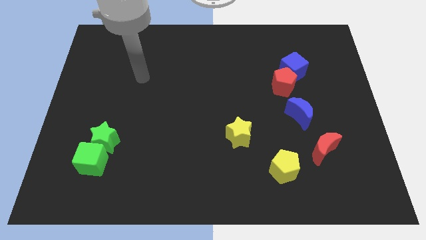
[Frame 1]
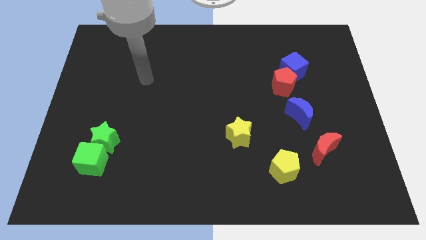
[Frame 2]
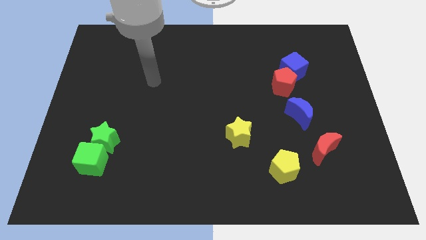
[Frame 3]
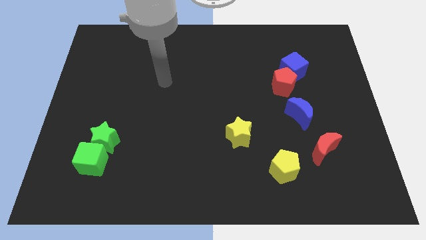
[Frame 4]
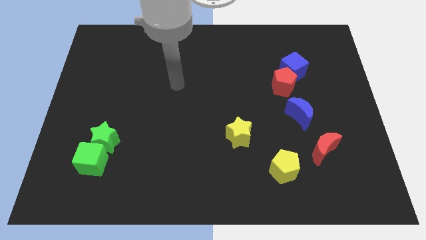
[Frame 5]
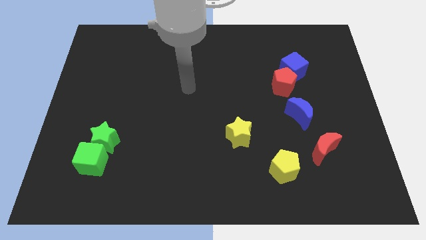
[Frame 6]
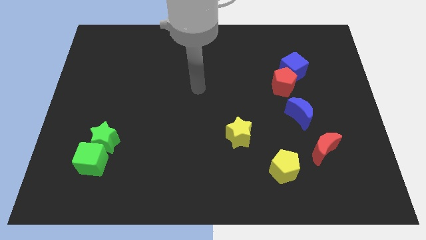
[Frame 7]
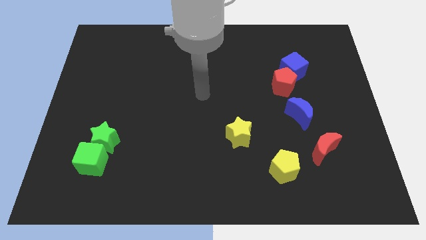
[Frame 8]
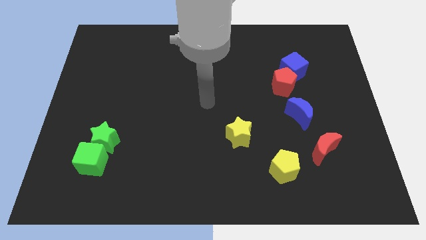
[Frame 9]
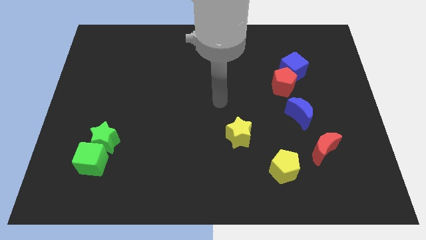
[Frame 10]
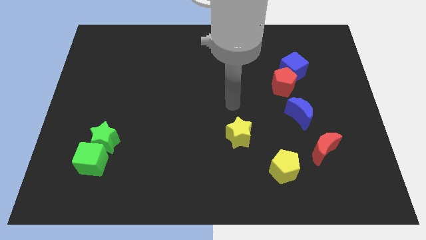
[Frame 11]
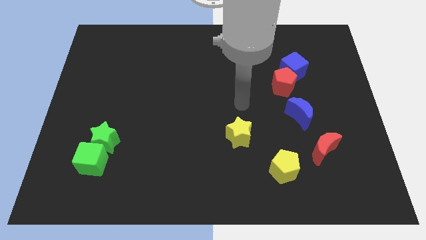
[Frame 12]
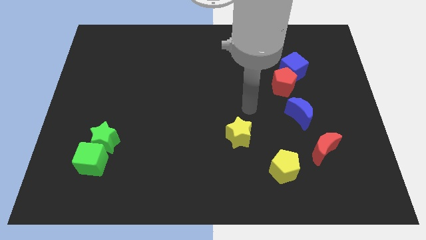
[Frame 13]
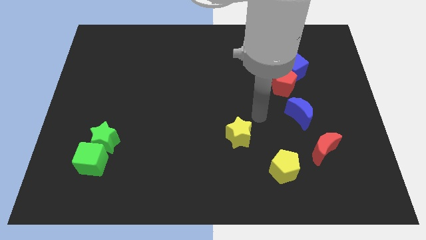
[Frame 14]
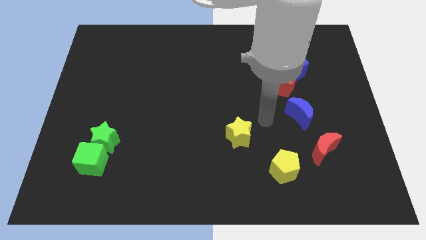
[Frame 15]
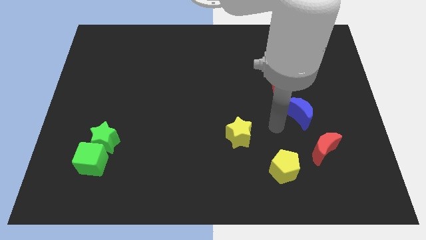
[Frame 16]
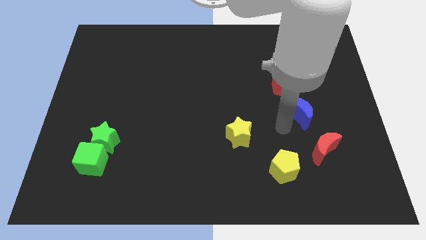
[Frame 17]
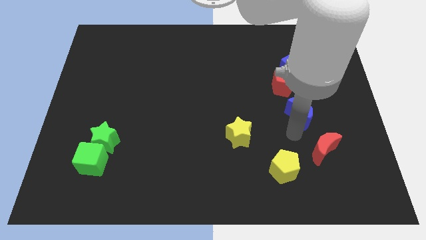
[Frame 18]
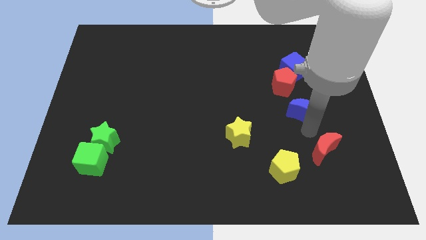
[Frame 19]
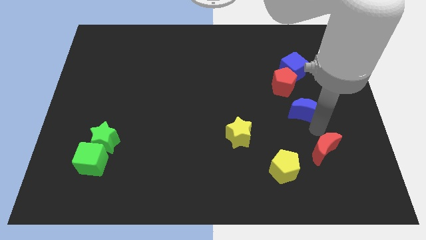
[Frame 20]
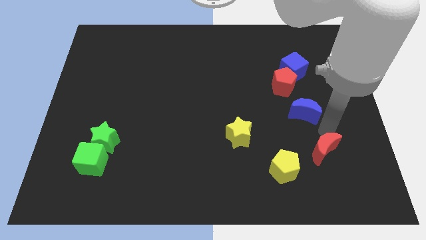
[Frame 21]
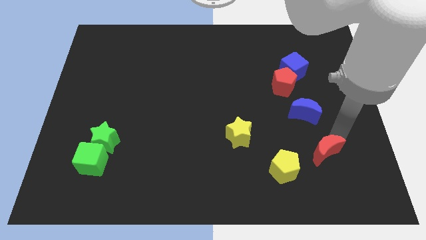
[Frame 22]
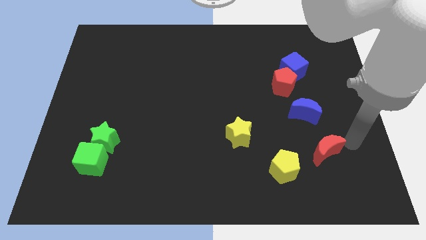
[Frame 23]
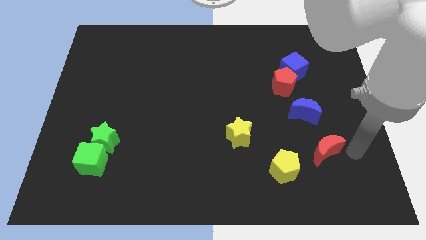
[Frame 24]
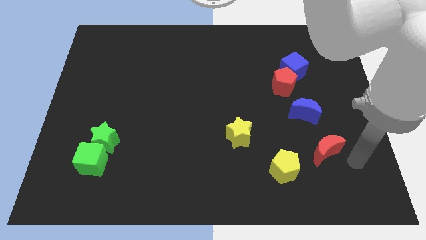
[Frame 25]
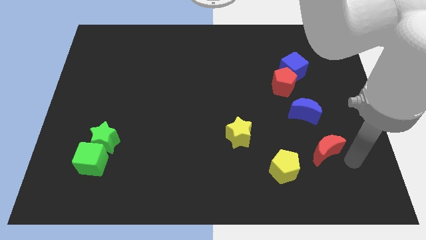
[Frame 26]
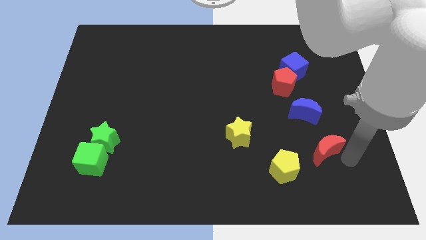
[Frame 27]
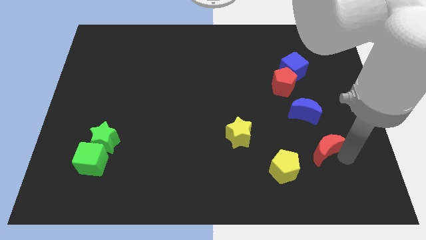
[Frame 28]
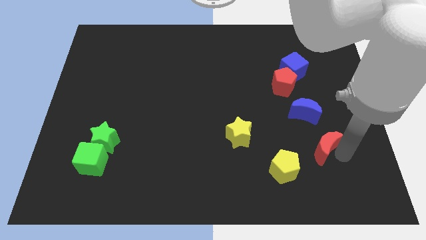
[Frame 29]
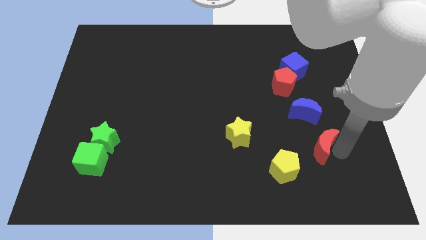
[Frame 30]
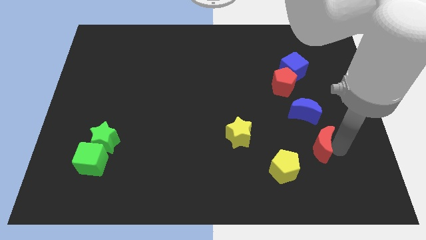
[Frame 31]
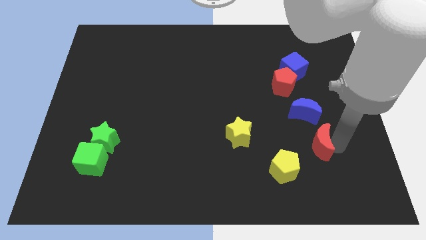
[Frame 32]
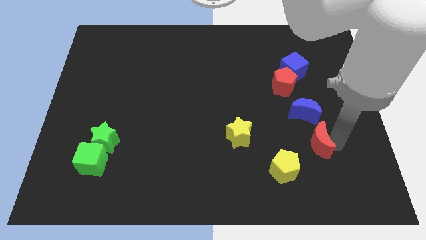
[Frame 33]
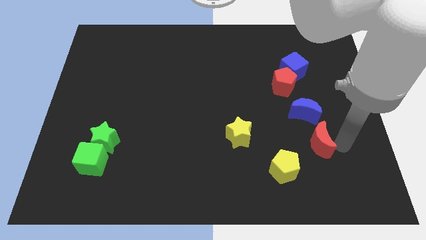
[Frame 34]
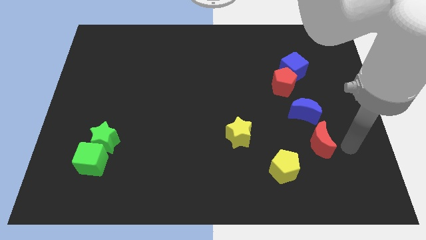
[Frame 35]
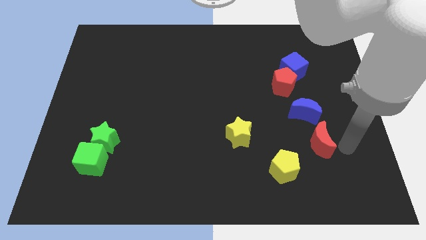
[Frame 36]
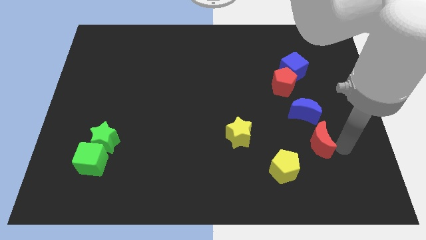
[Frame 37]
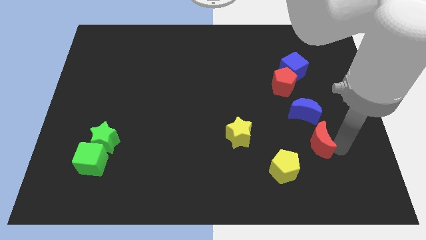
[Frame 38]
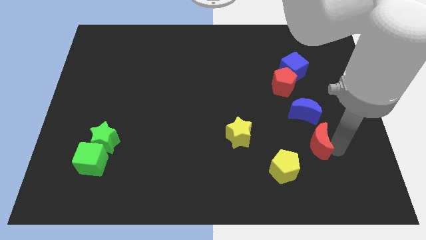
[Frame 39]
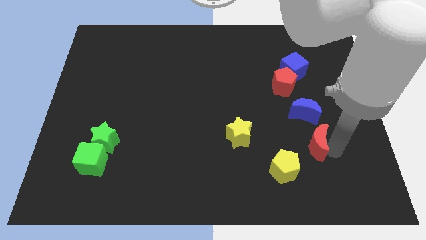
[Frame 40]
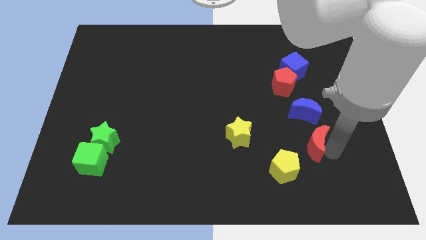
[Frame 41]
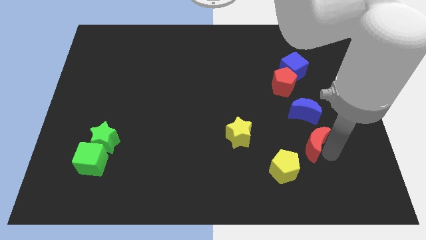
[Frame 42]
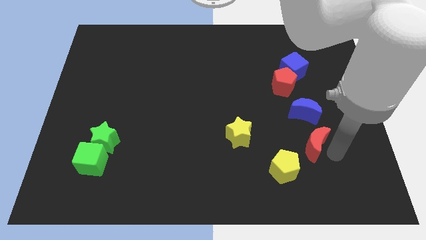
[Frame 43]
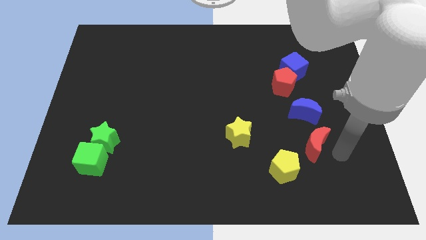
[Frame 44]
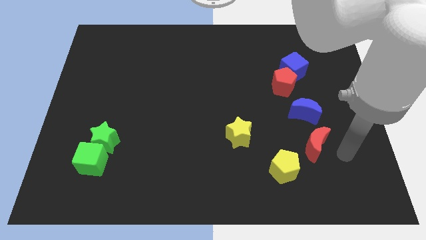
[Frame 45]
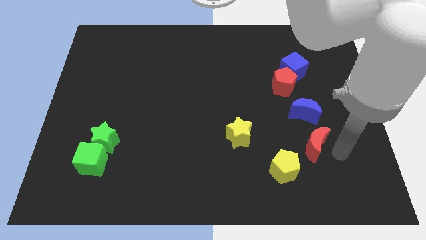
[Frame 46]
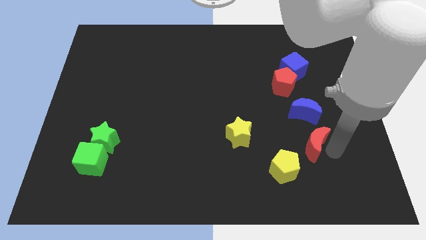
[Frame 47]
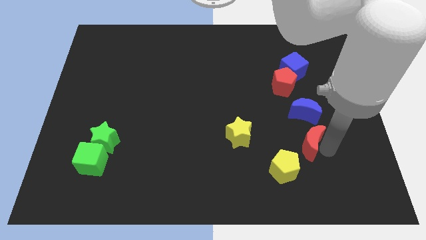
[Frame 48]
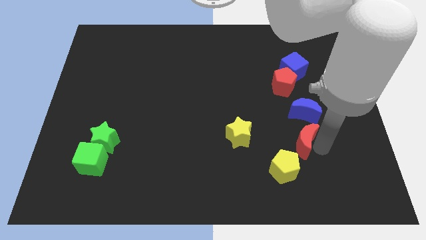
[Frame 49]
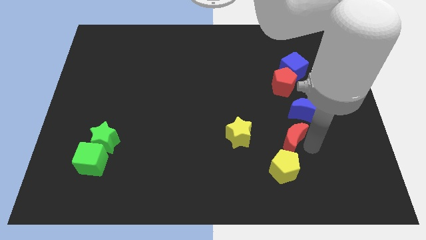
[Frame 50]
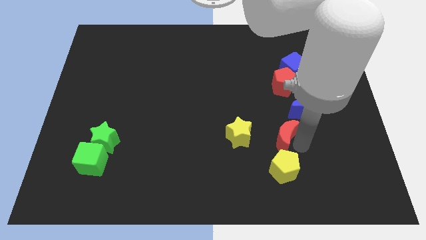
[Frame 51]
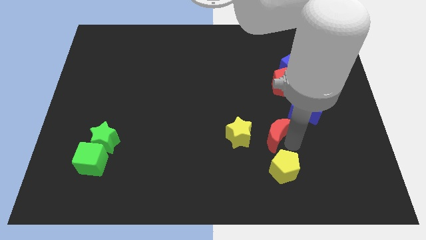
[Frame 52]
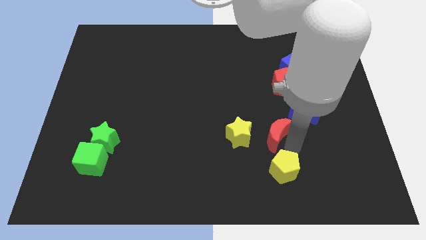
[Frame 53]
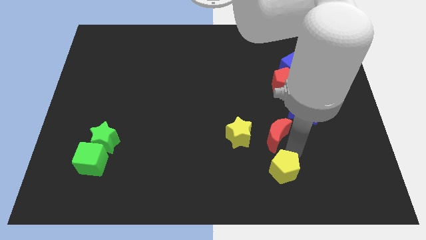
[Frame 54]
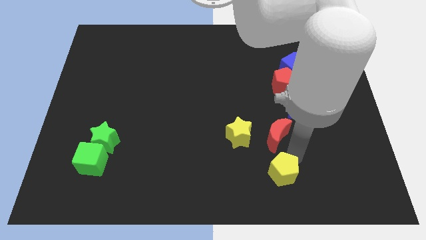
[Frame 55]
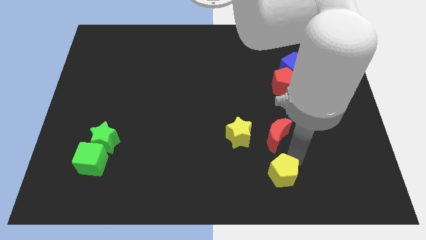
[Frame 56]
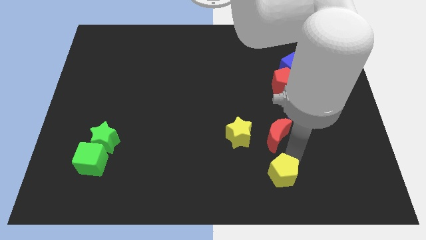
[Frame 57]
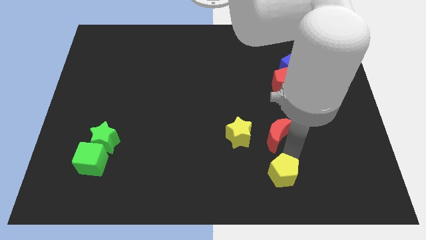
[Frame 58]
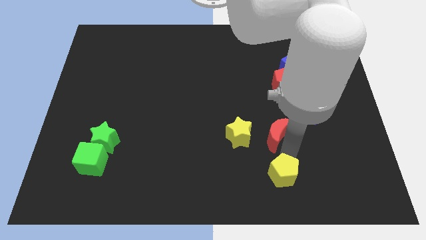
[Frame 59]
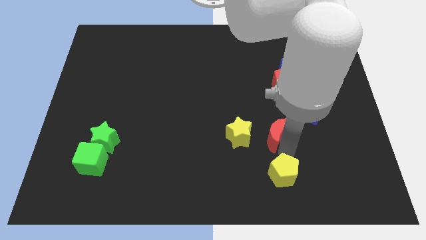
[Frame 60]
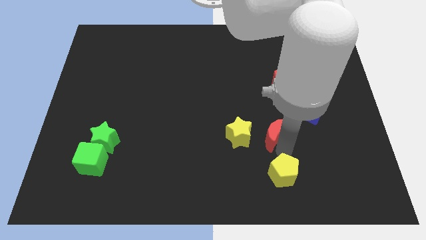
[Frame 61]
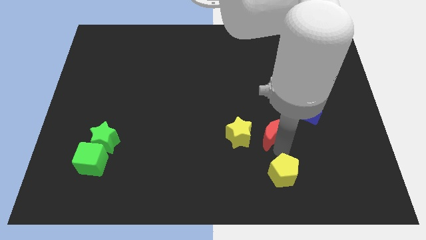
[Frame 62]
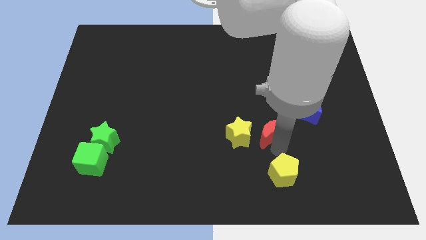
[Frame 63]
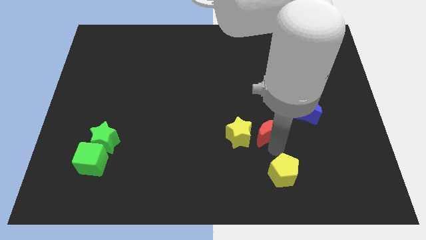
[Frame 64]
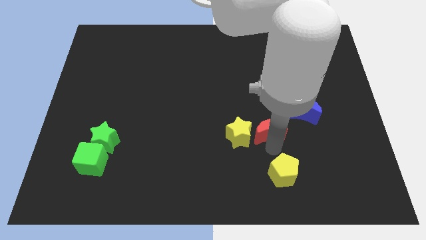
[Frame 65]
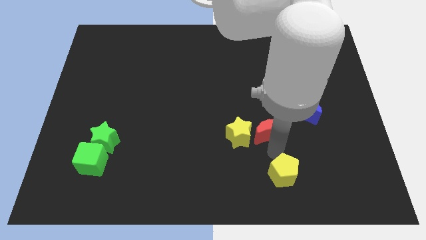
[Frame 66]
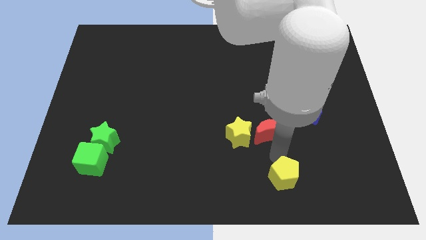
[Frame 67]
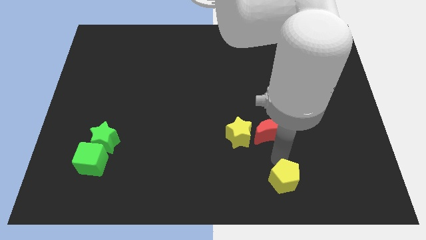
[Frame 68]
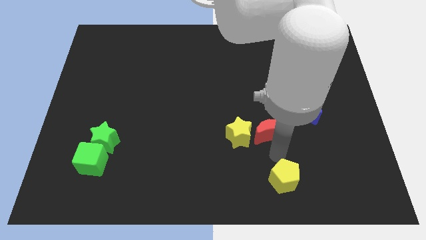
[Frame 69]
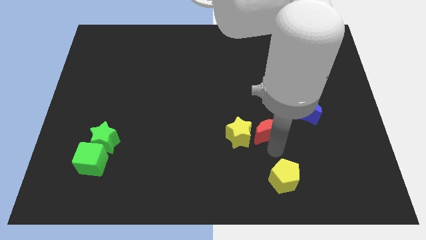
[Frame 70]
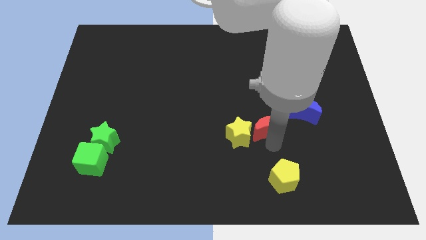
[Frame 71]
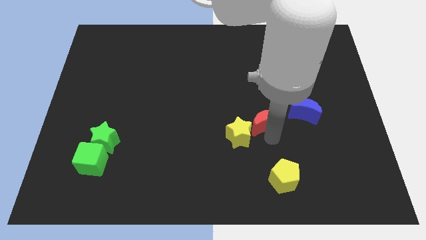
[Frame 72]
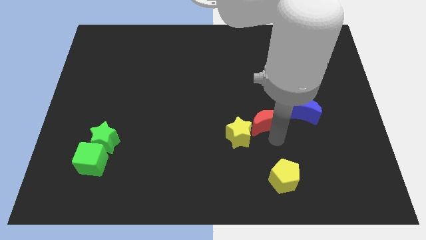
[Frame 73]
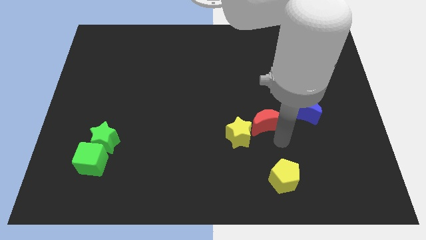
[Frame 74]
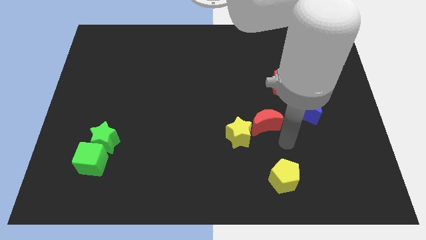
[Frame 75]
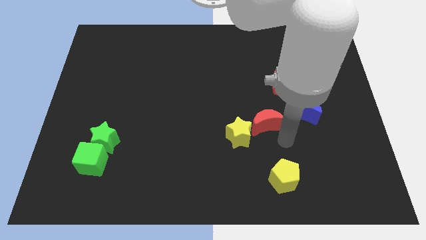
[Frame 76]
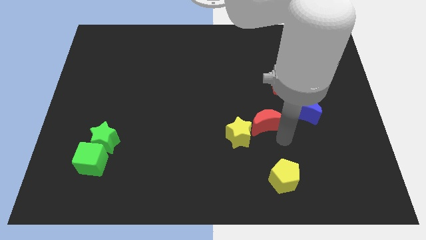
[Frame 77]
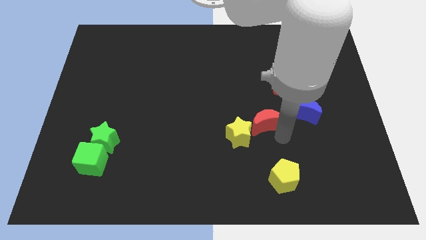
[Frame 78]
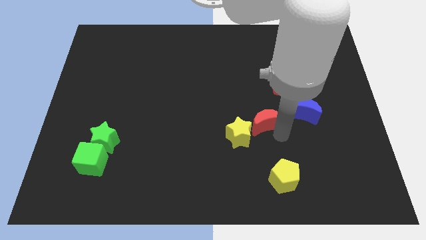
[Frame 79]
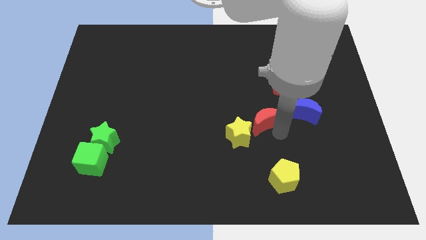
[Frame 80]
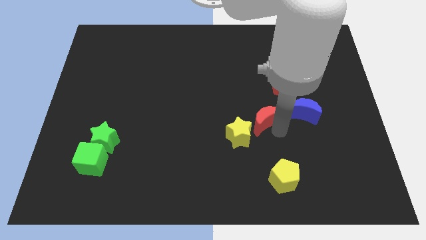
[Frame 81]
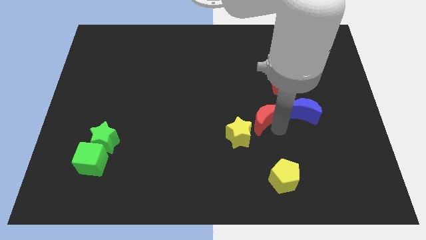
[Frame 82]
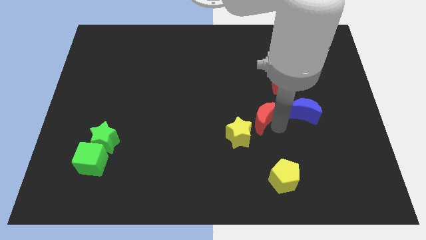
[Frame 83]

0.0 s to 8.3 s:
push the red moon to the center of the board
